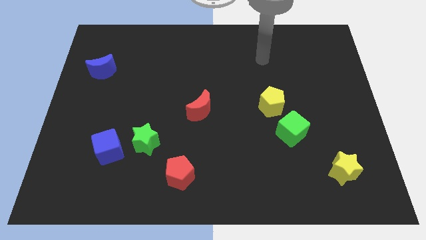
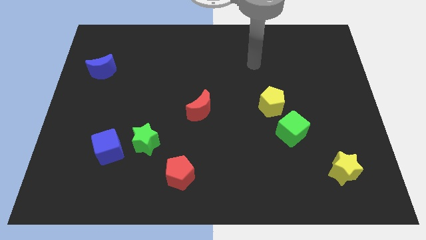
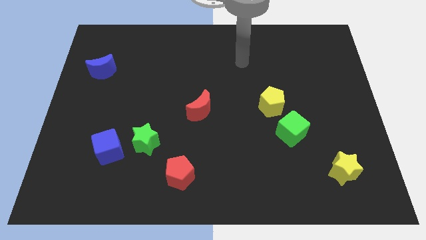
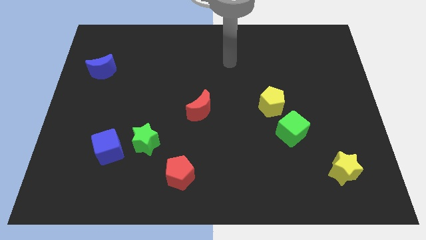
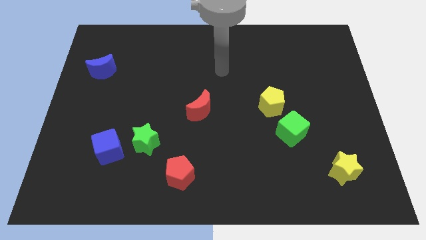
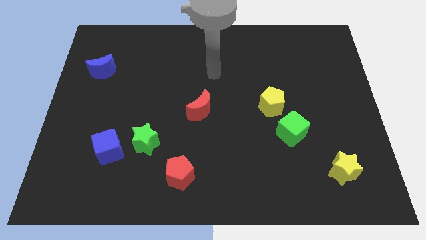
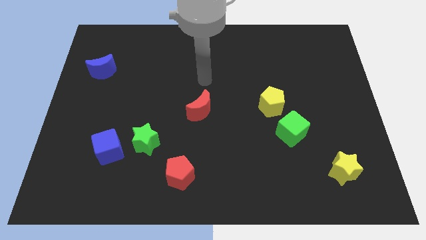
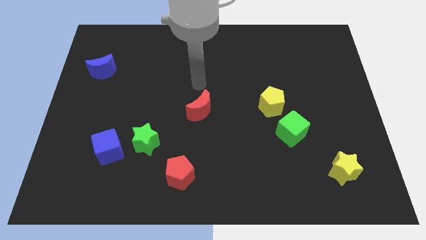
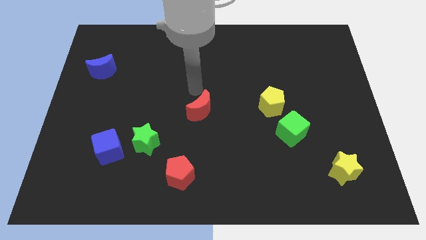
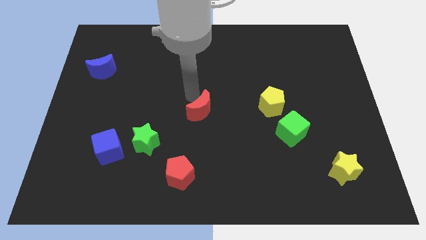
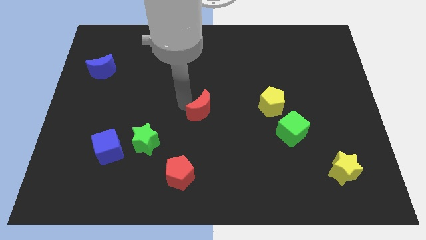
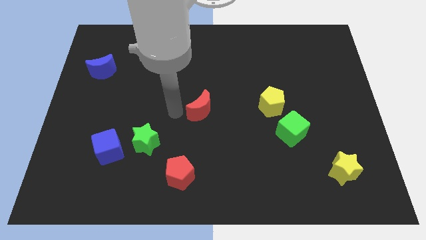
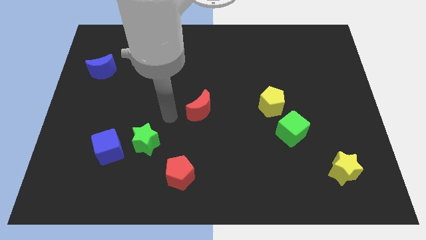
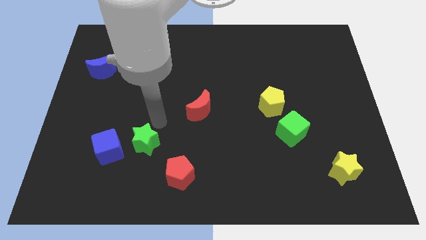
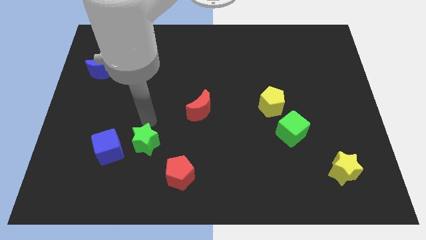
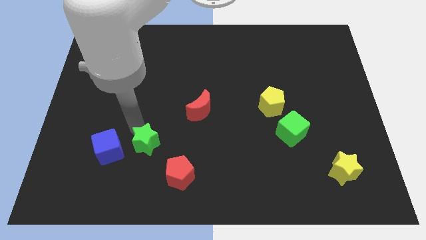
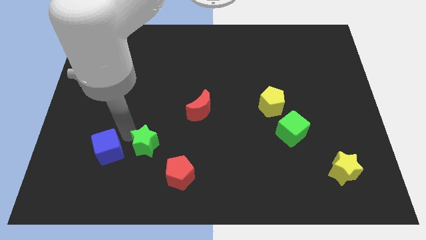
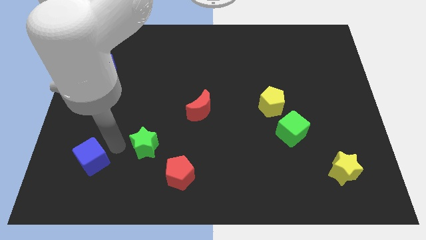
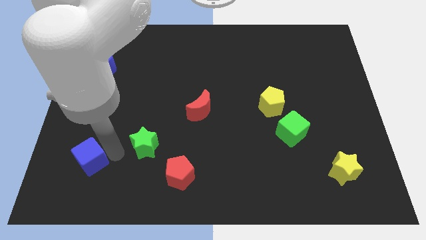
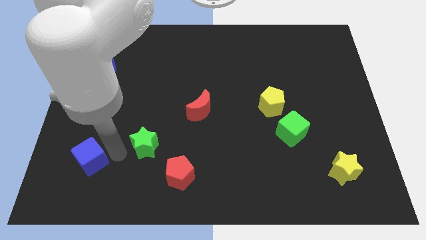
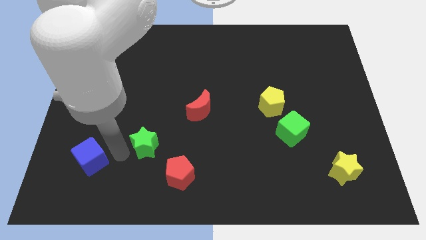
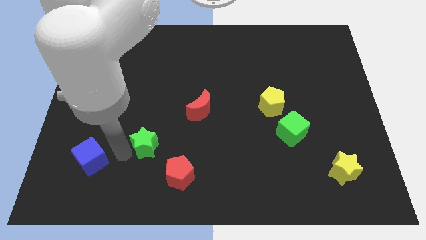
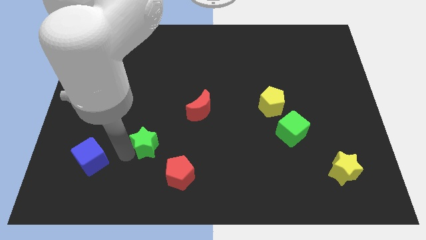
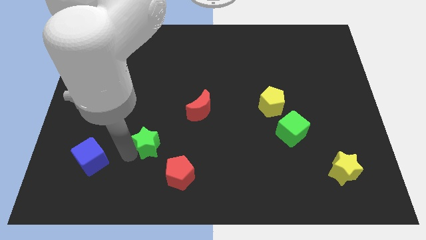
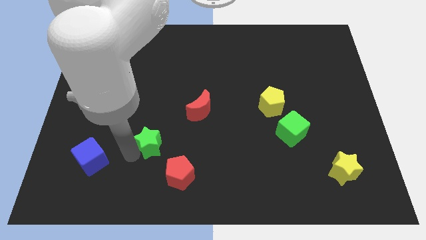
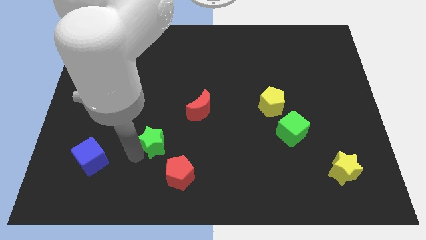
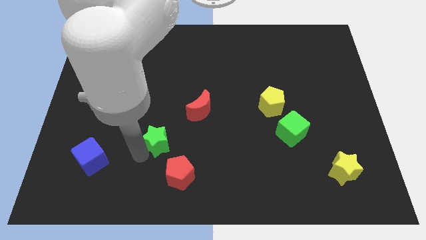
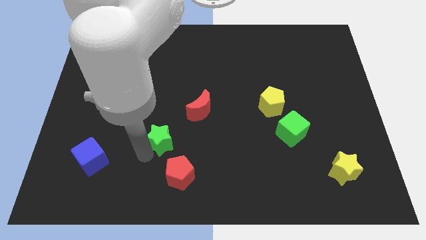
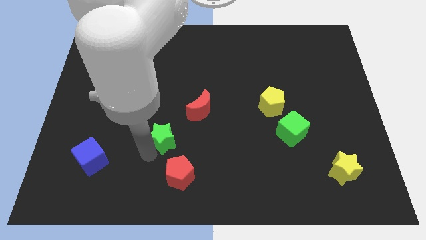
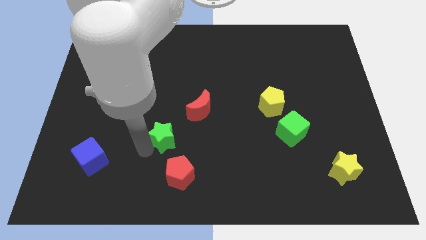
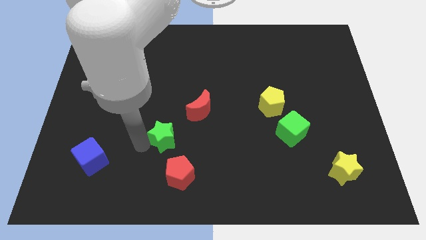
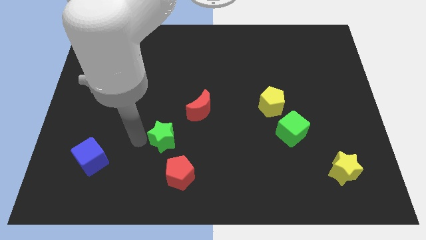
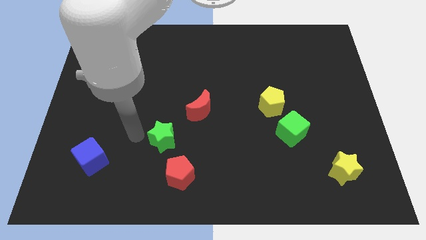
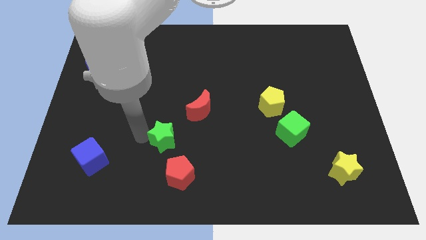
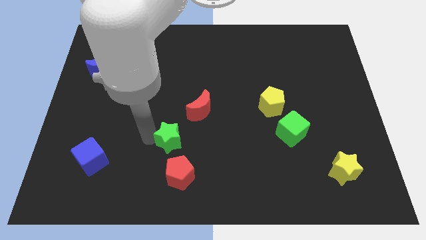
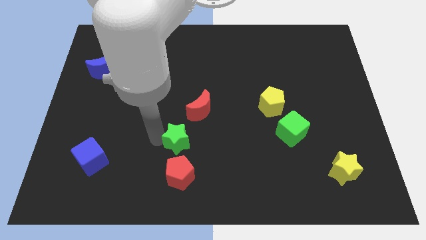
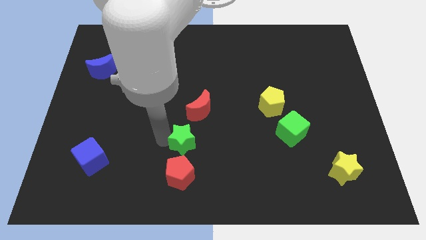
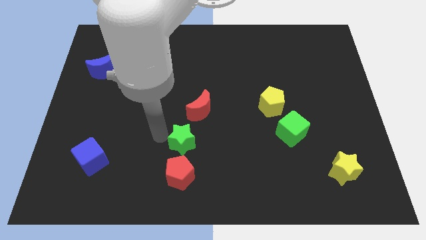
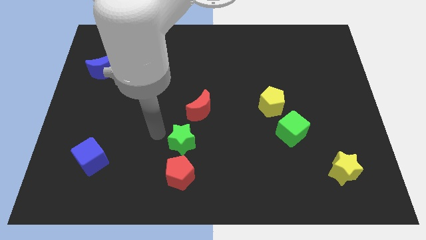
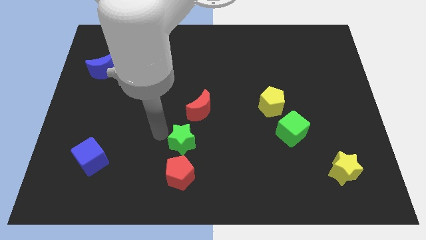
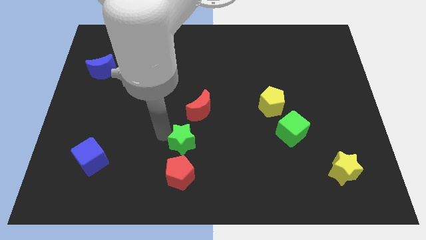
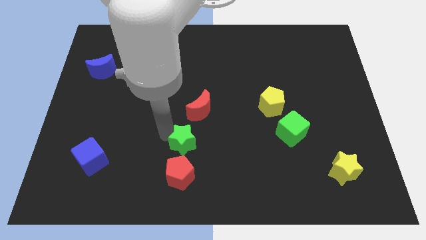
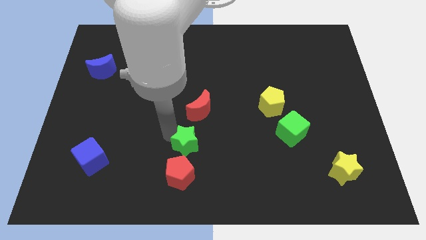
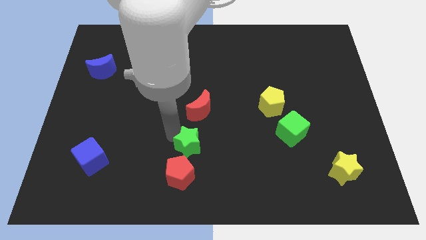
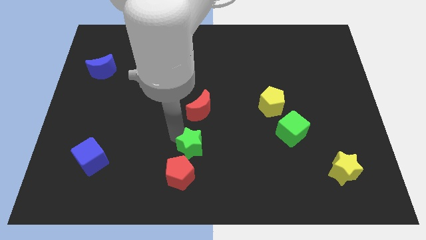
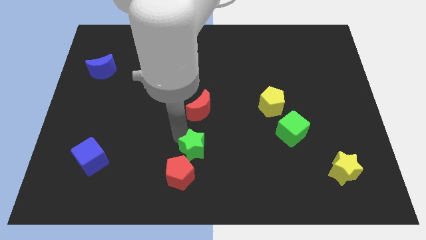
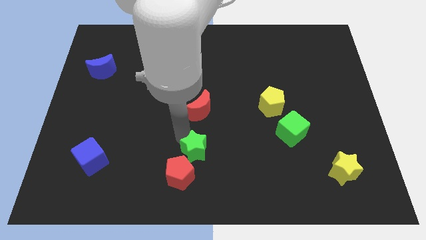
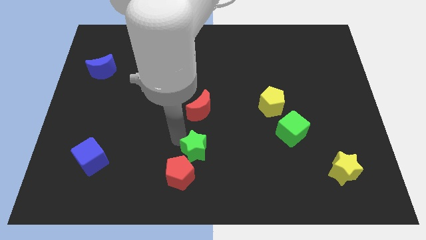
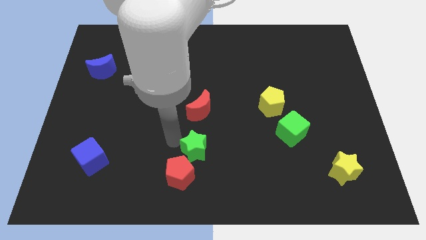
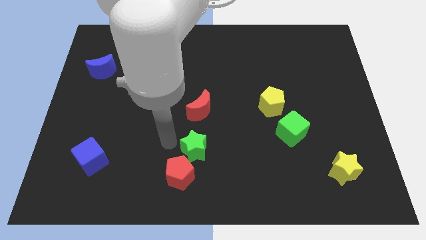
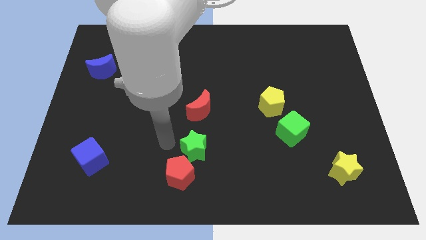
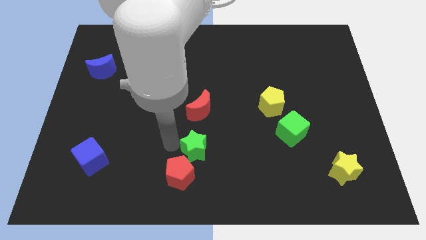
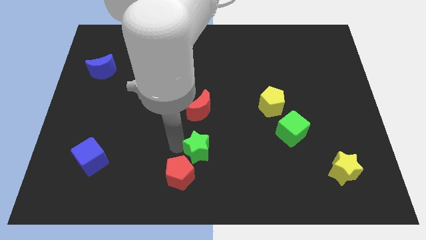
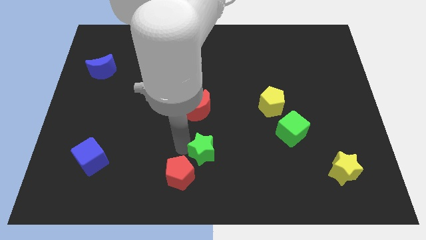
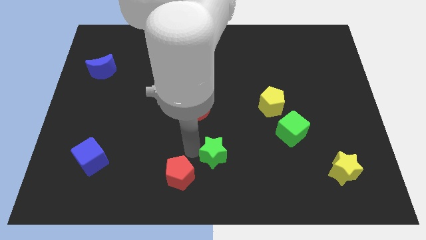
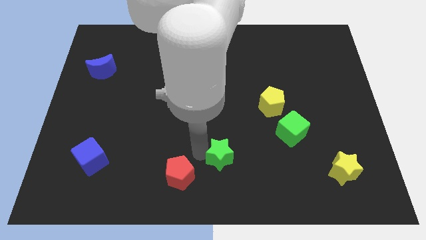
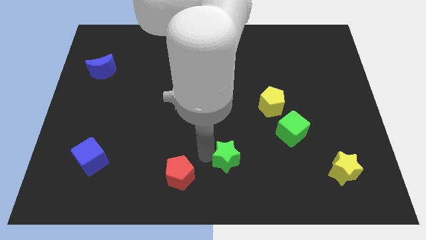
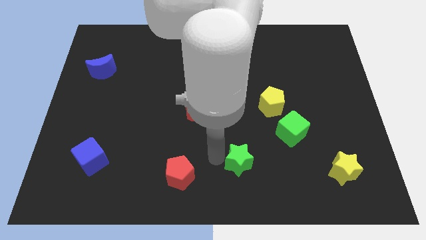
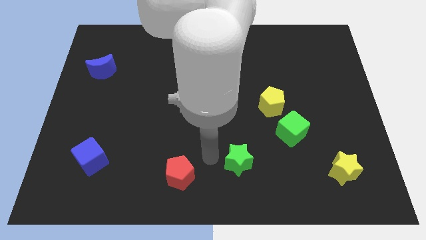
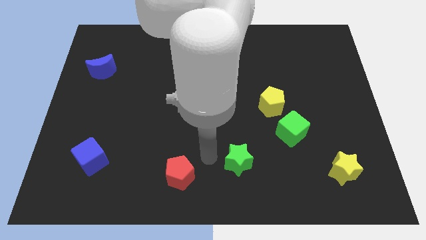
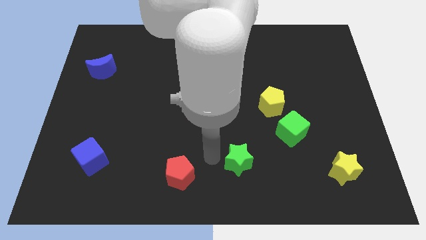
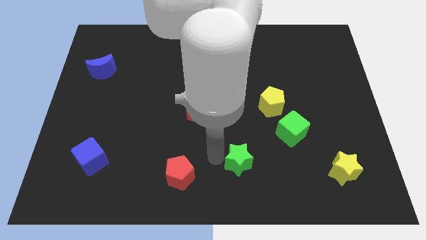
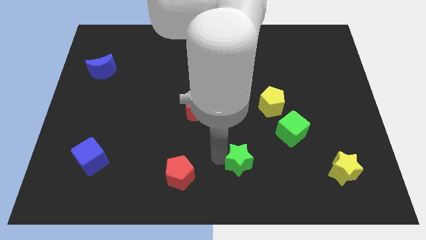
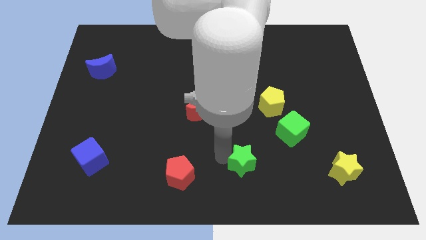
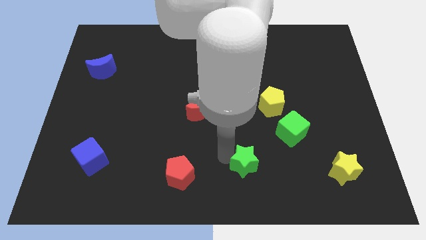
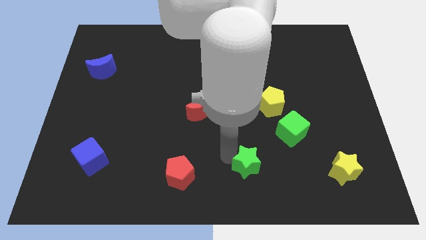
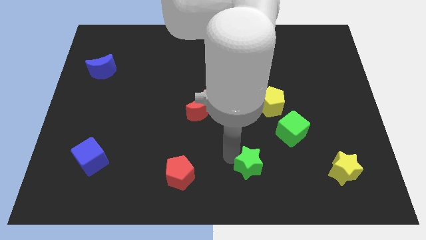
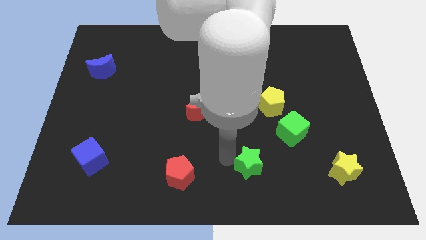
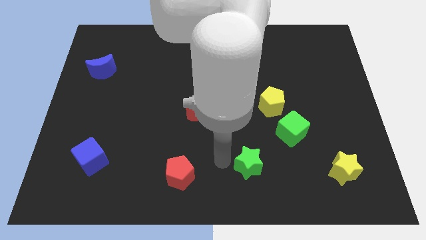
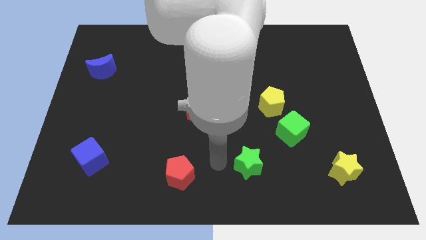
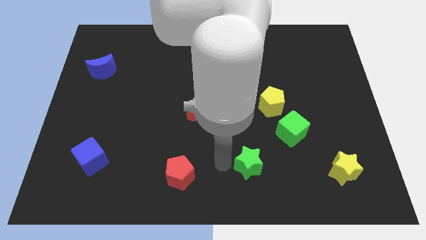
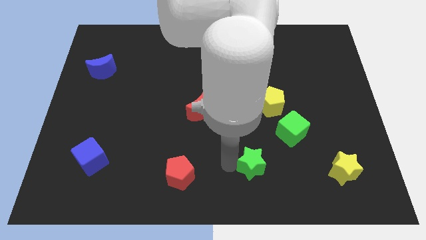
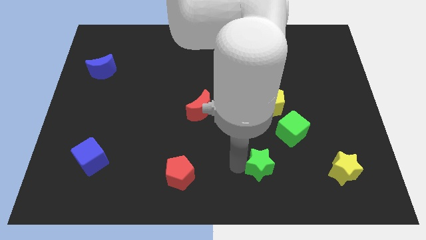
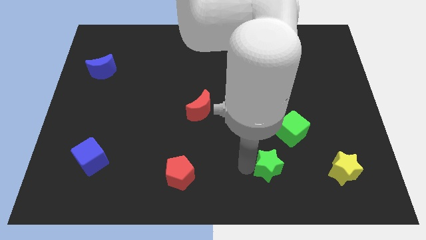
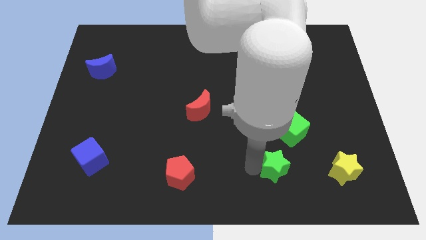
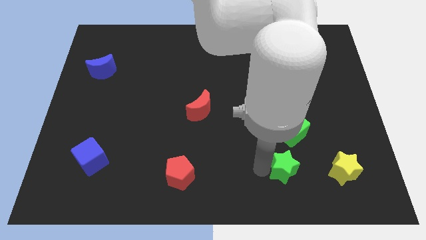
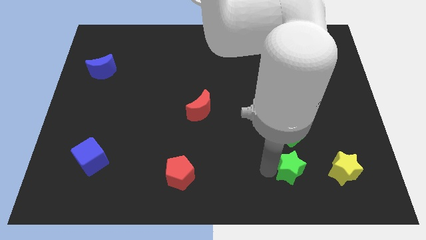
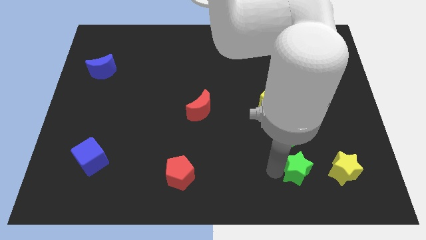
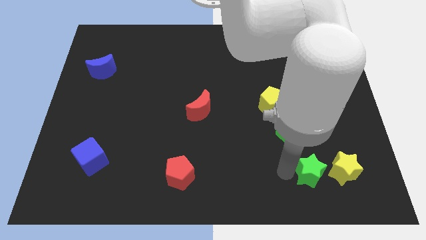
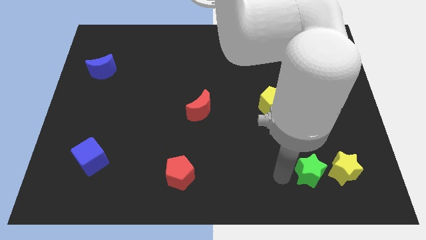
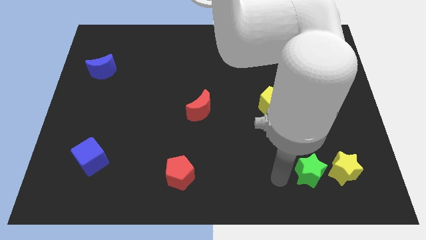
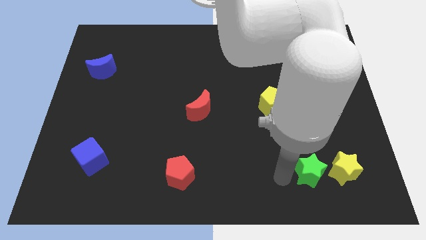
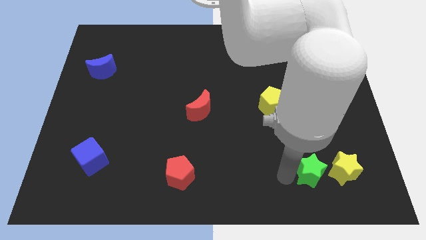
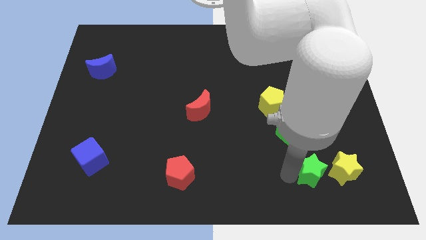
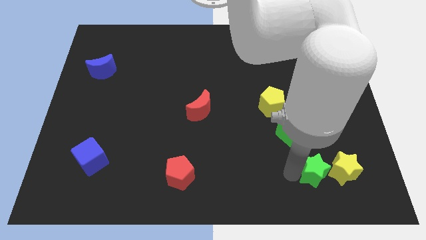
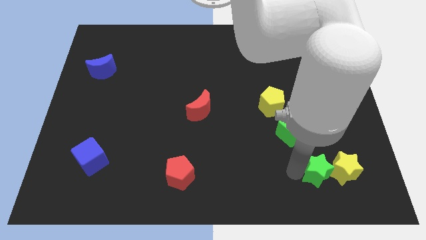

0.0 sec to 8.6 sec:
move the green star towards the yellow star
